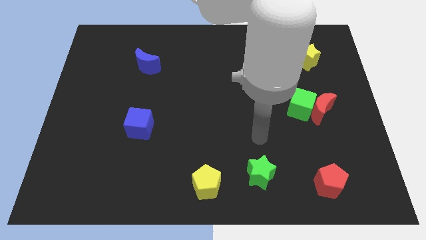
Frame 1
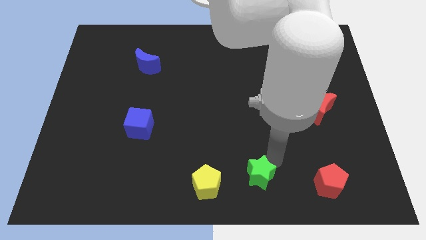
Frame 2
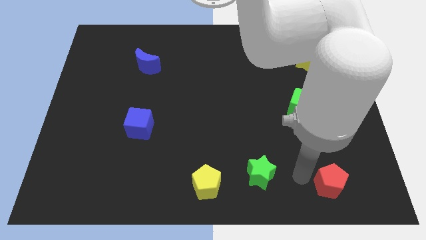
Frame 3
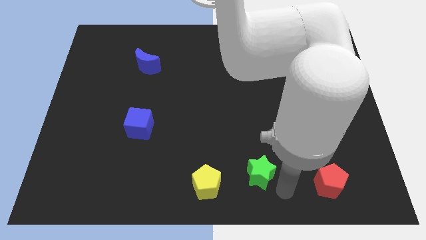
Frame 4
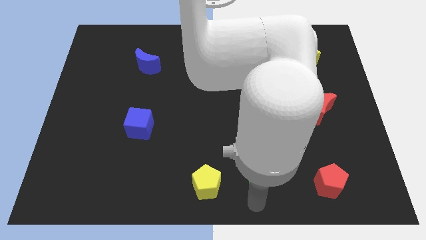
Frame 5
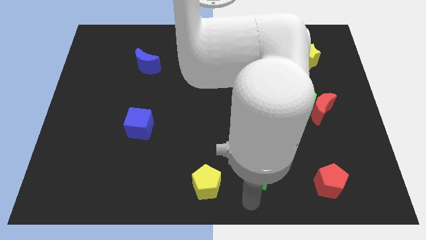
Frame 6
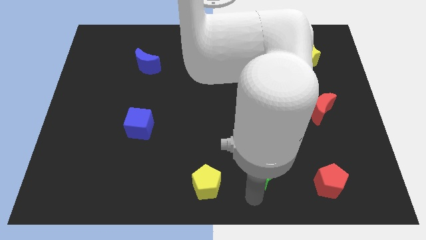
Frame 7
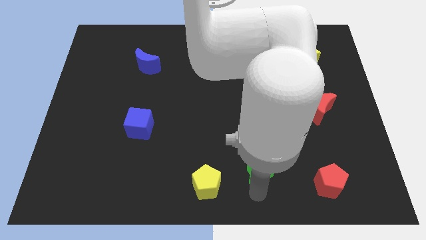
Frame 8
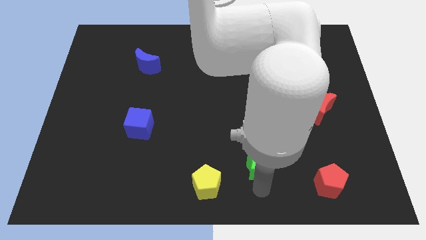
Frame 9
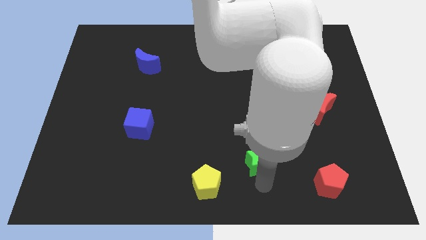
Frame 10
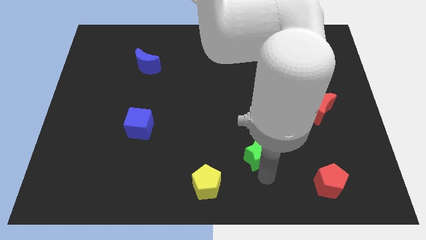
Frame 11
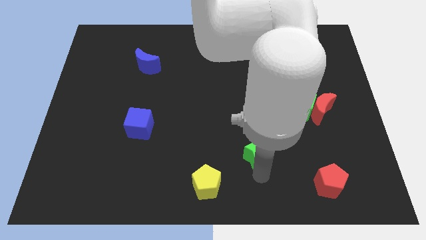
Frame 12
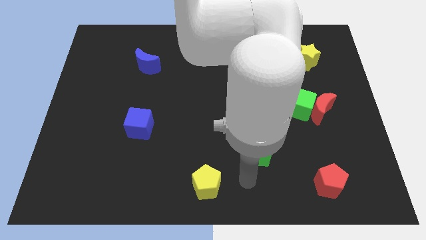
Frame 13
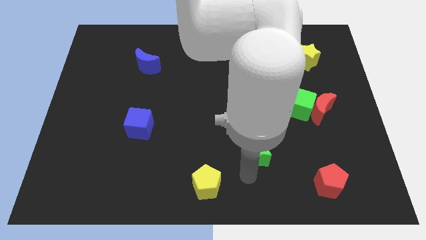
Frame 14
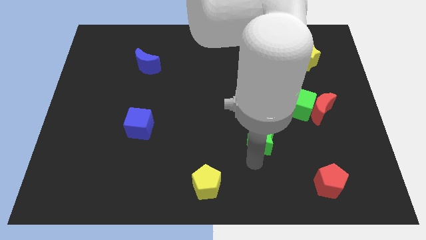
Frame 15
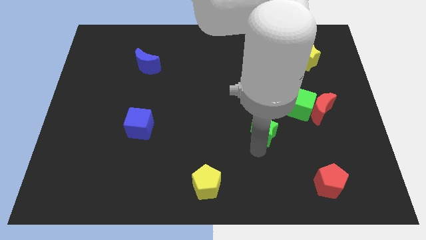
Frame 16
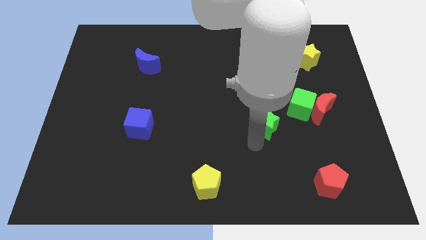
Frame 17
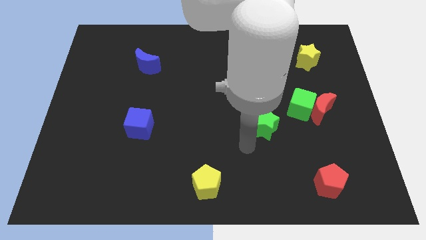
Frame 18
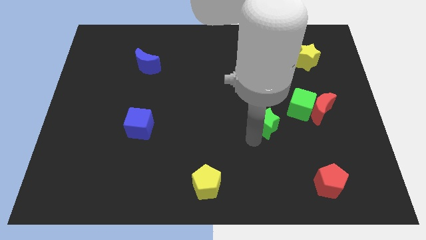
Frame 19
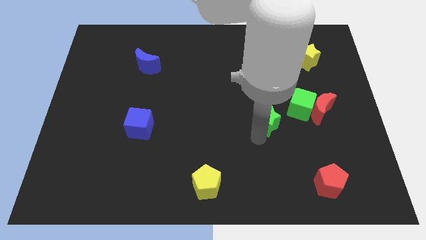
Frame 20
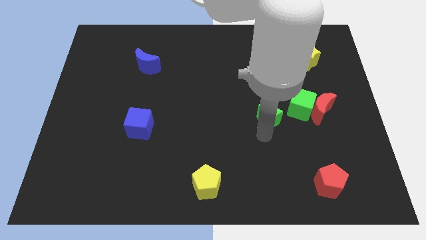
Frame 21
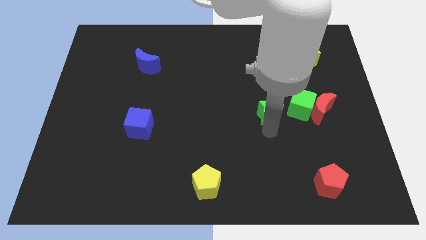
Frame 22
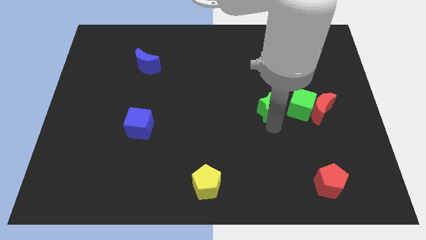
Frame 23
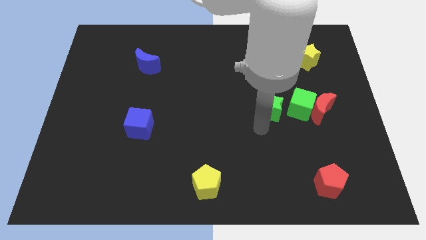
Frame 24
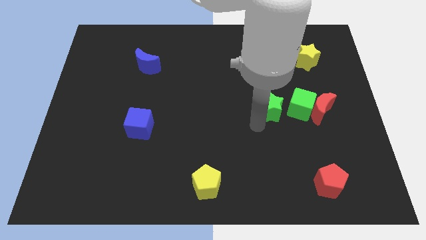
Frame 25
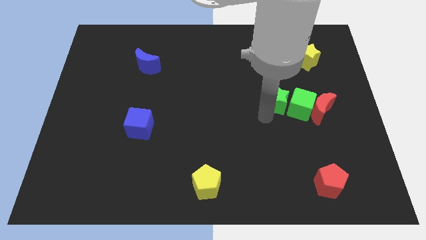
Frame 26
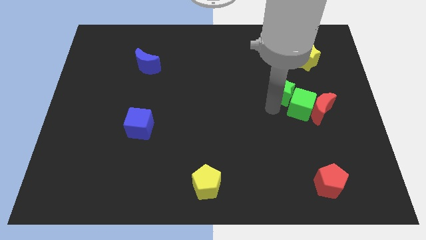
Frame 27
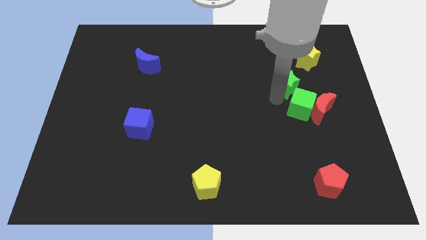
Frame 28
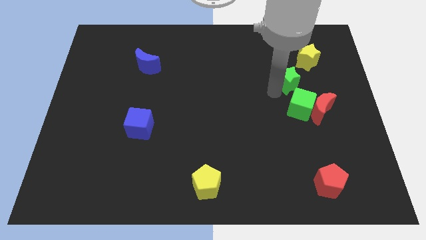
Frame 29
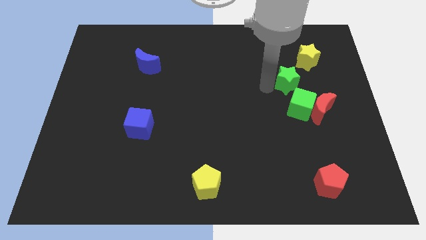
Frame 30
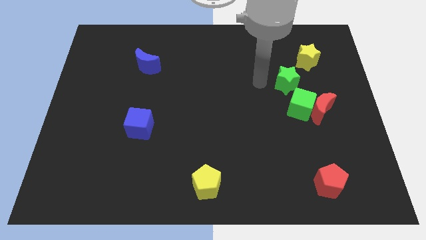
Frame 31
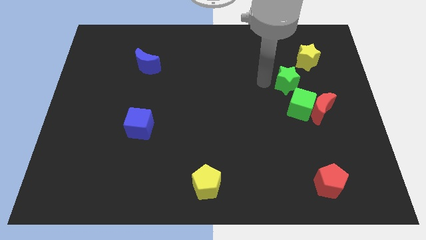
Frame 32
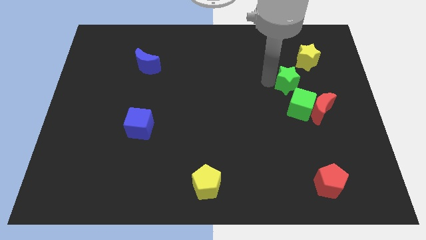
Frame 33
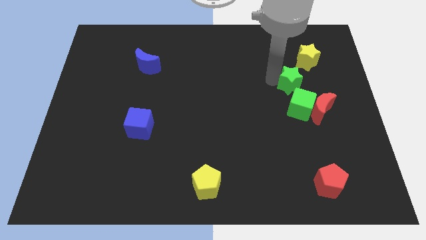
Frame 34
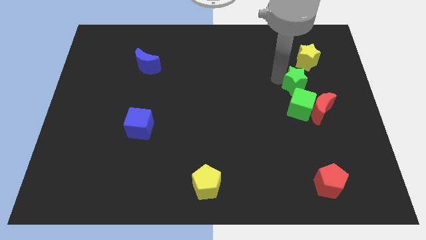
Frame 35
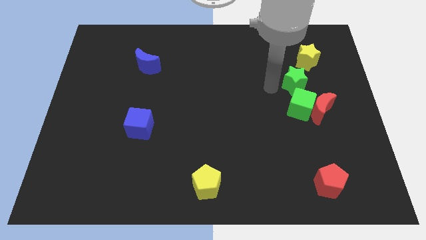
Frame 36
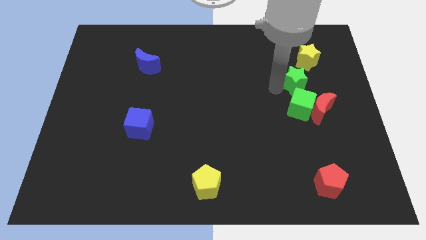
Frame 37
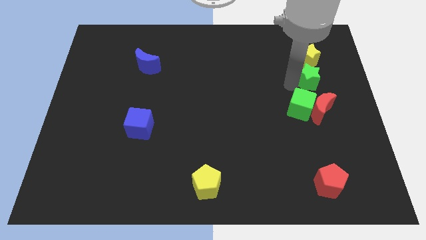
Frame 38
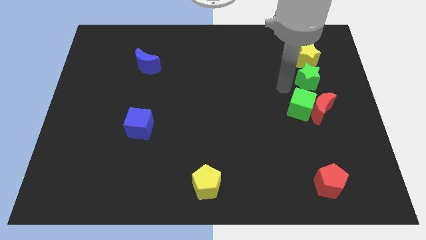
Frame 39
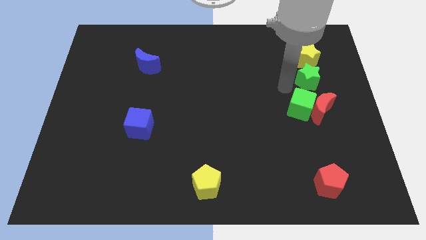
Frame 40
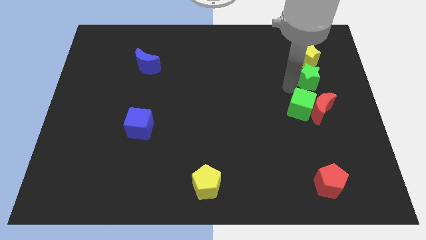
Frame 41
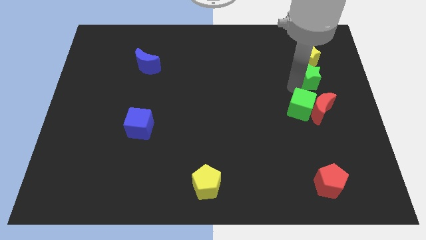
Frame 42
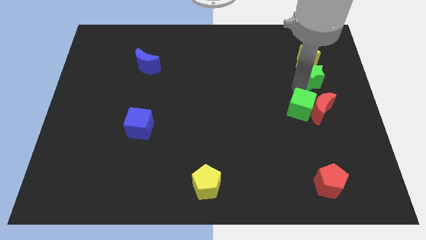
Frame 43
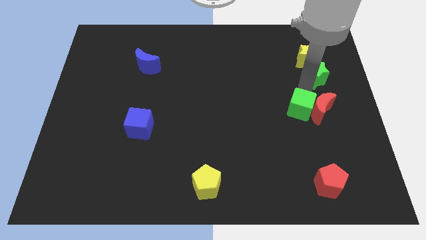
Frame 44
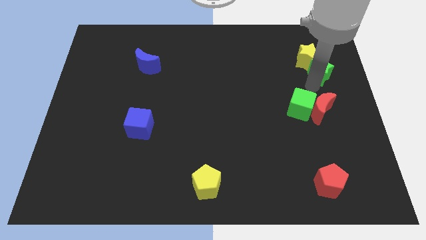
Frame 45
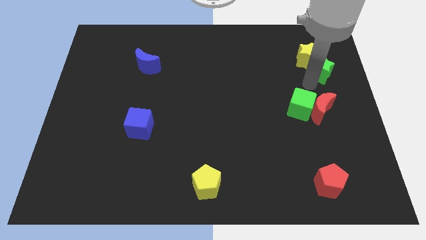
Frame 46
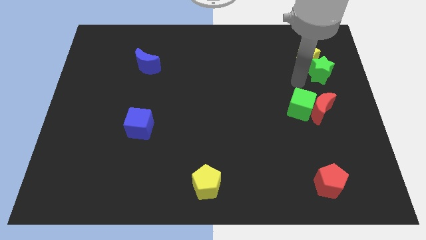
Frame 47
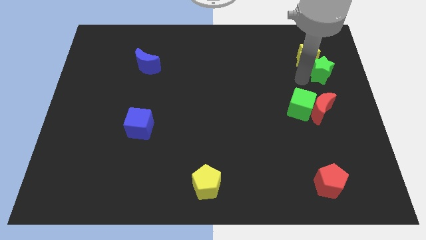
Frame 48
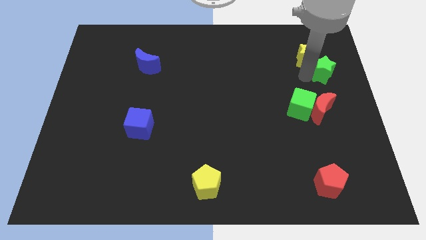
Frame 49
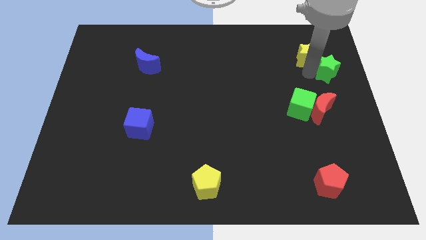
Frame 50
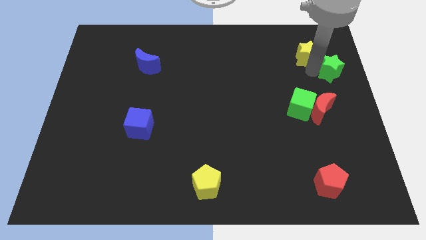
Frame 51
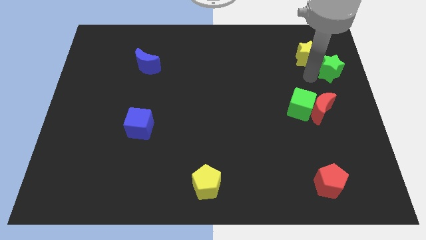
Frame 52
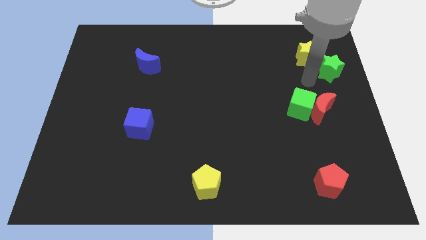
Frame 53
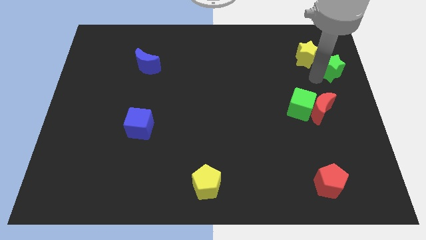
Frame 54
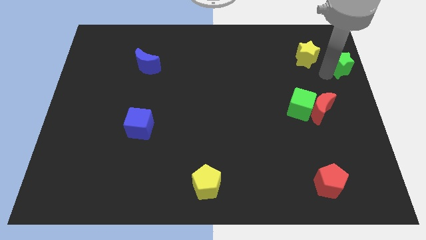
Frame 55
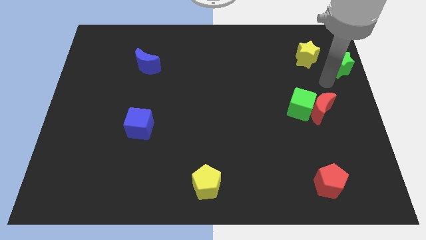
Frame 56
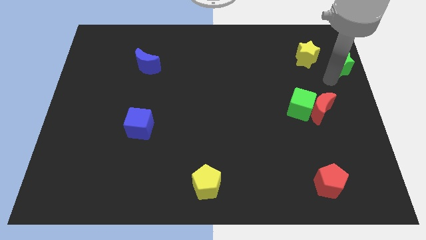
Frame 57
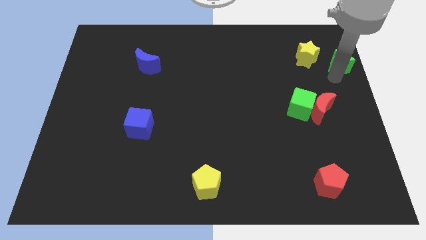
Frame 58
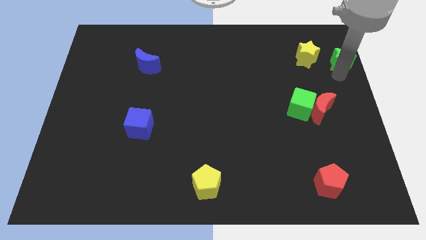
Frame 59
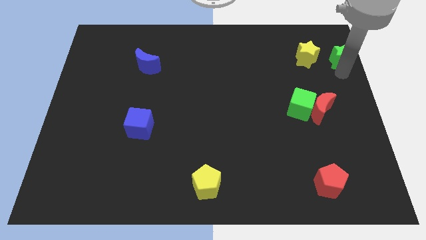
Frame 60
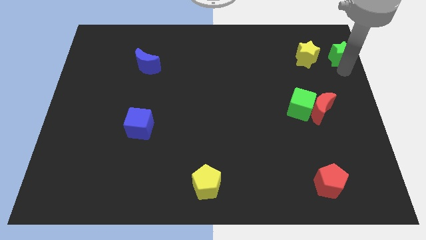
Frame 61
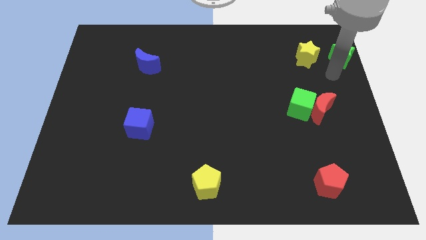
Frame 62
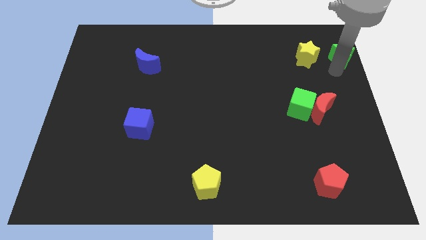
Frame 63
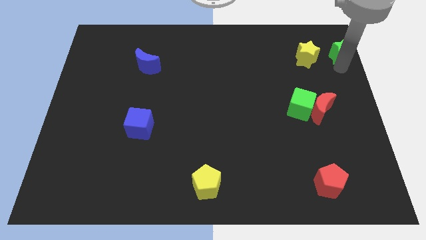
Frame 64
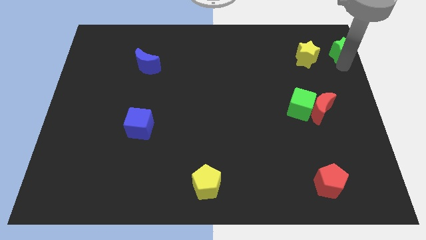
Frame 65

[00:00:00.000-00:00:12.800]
push the green star to the top right
